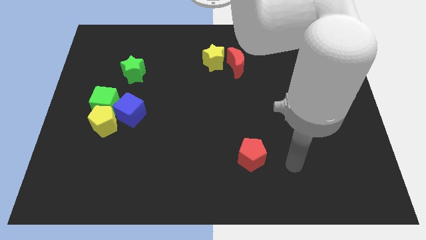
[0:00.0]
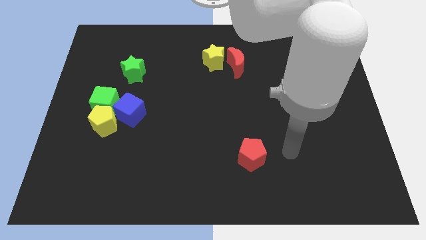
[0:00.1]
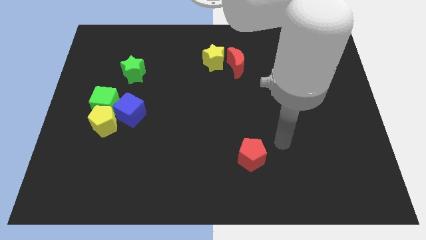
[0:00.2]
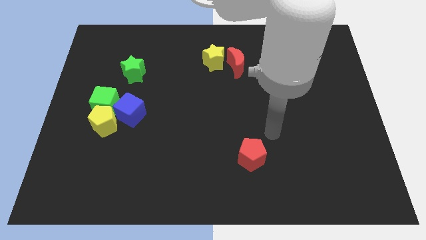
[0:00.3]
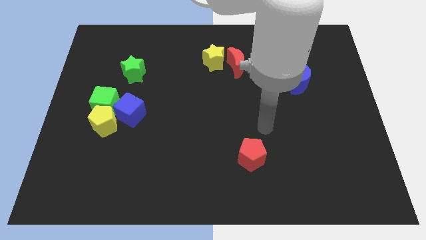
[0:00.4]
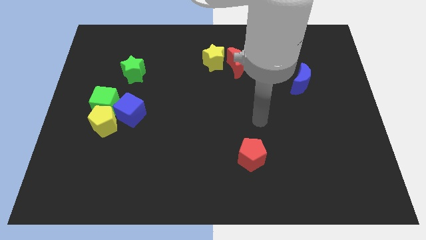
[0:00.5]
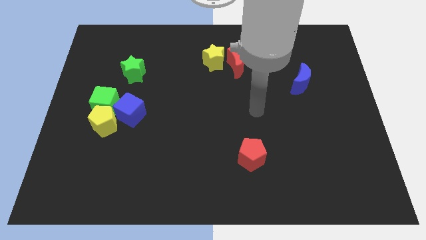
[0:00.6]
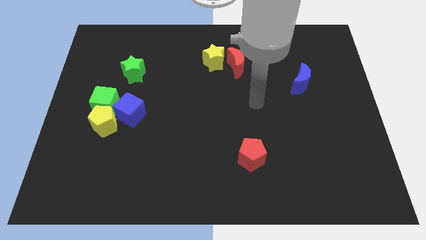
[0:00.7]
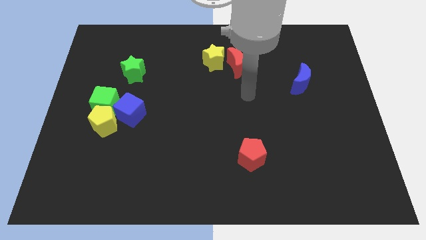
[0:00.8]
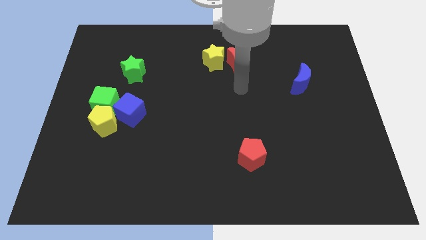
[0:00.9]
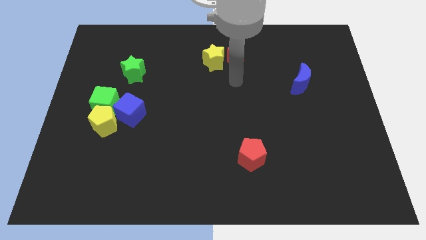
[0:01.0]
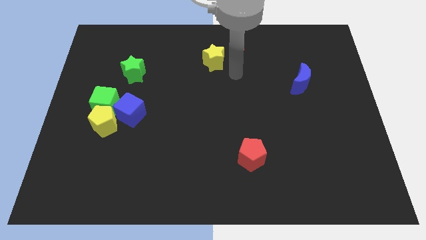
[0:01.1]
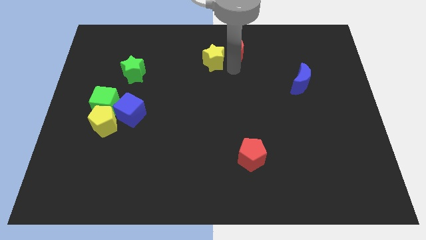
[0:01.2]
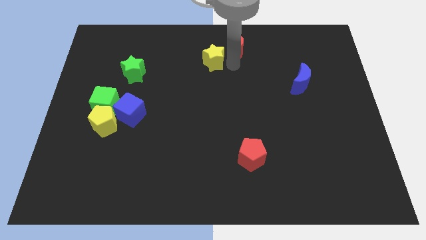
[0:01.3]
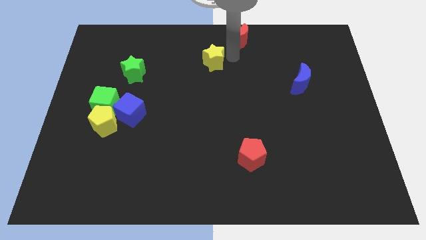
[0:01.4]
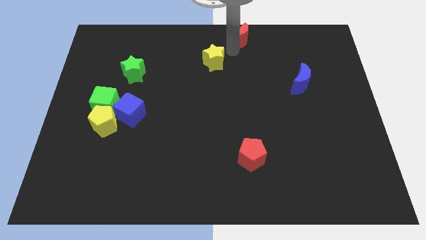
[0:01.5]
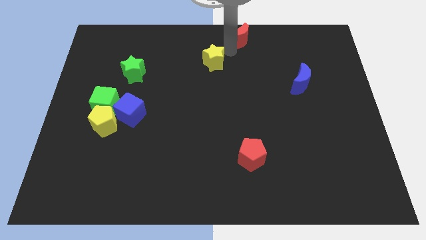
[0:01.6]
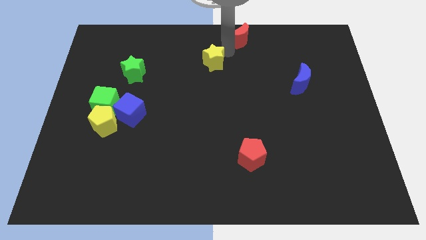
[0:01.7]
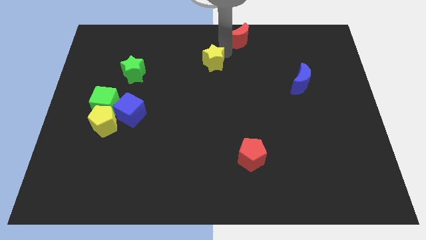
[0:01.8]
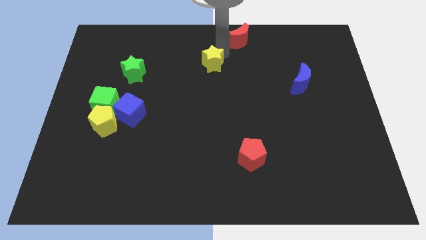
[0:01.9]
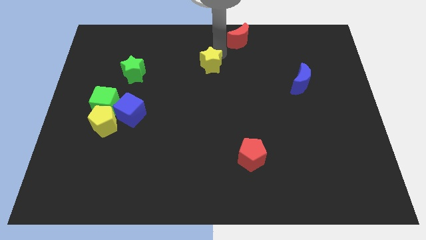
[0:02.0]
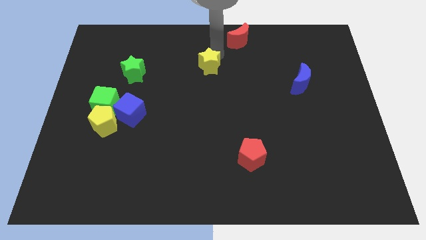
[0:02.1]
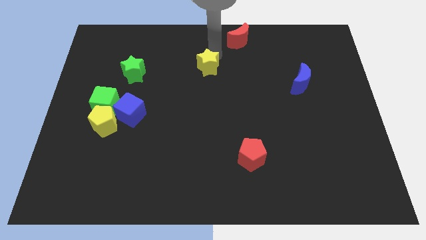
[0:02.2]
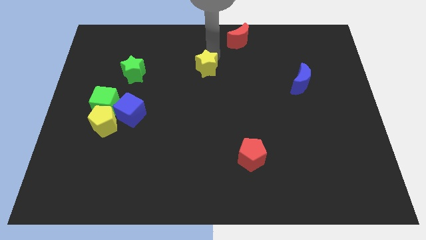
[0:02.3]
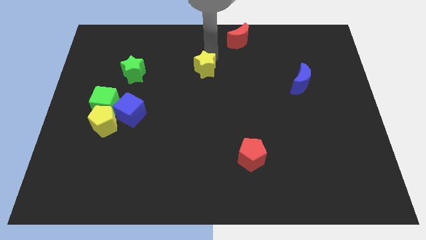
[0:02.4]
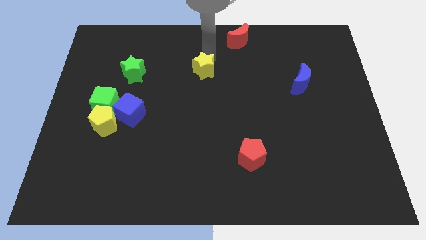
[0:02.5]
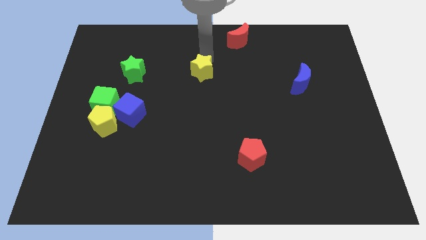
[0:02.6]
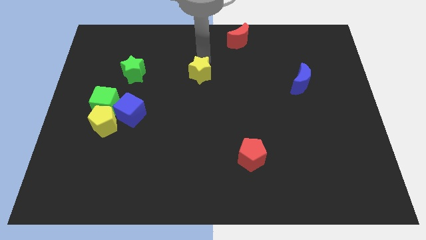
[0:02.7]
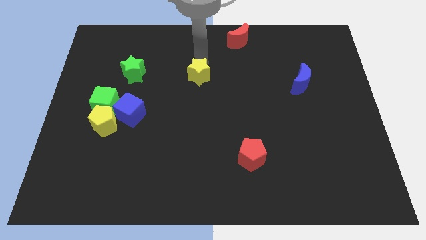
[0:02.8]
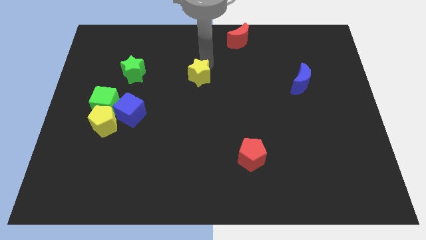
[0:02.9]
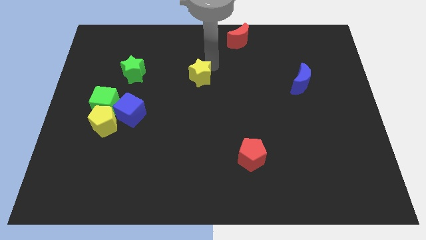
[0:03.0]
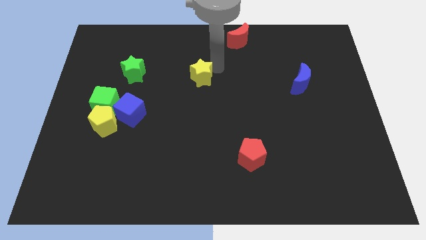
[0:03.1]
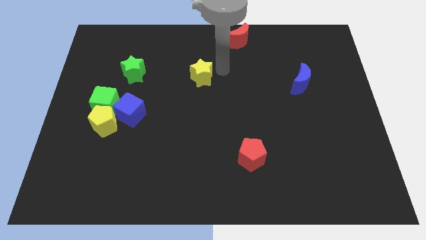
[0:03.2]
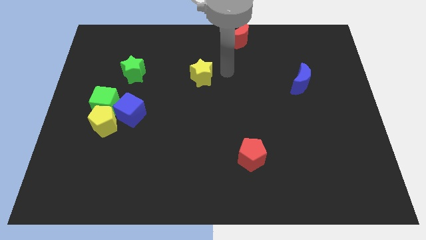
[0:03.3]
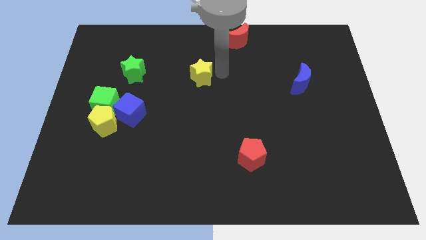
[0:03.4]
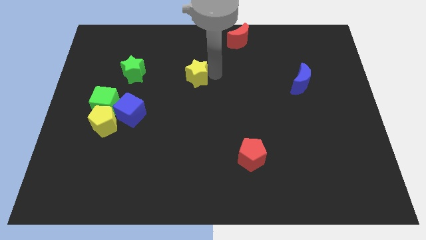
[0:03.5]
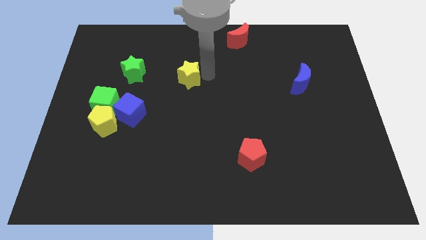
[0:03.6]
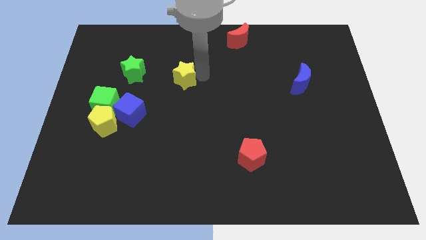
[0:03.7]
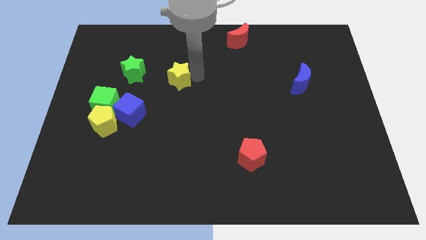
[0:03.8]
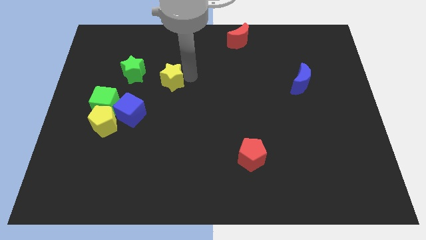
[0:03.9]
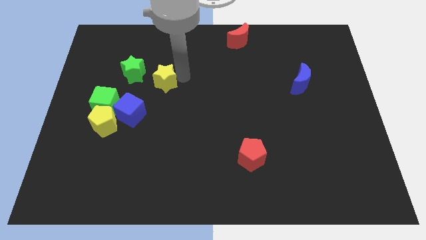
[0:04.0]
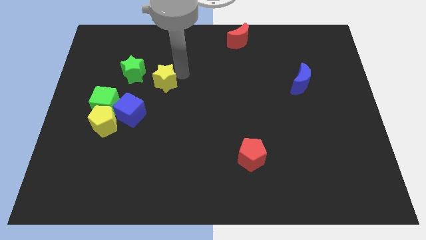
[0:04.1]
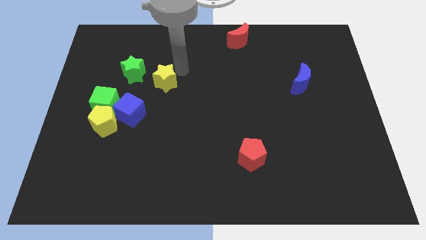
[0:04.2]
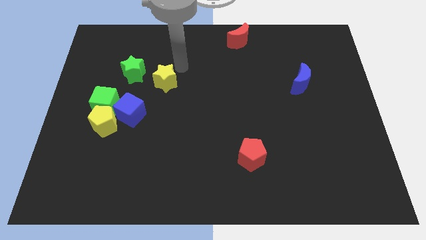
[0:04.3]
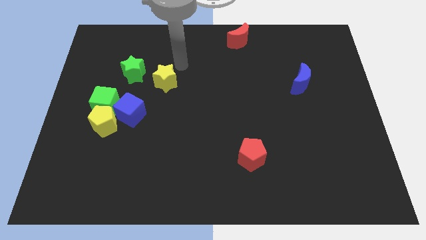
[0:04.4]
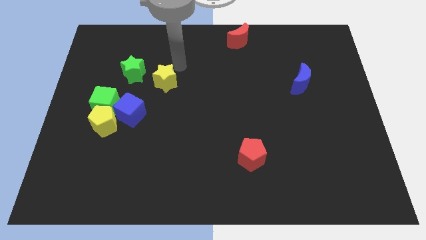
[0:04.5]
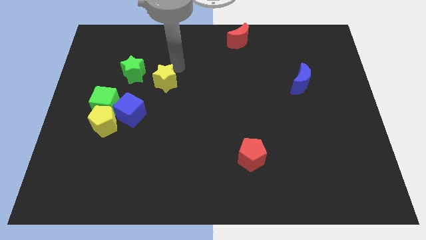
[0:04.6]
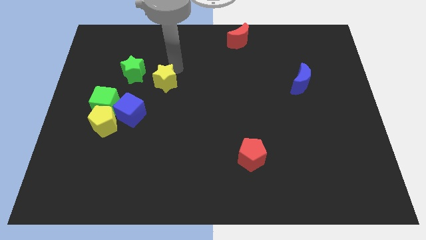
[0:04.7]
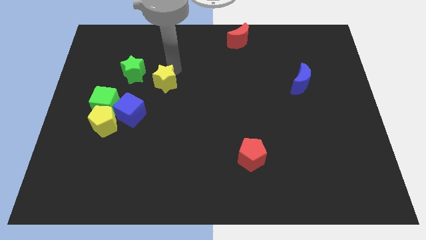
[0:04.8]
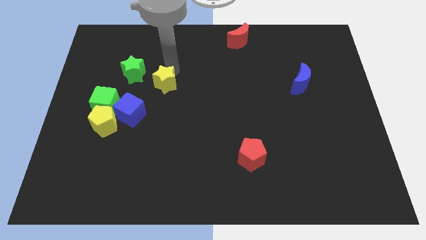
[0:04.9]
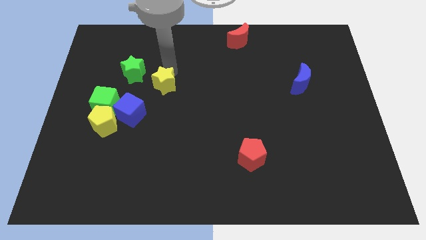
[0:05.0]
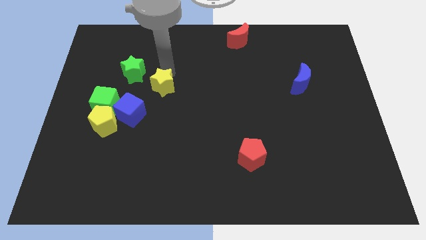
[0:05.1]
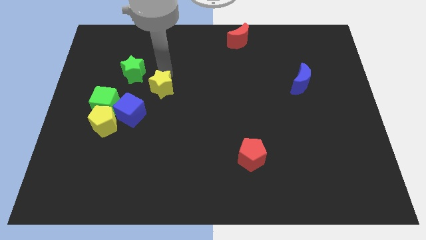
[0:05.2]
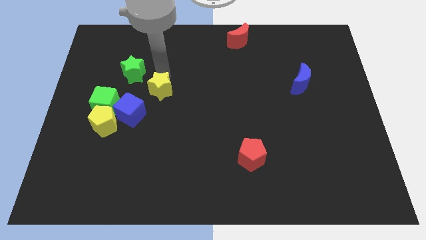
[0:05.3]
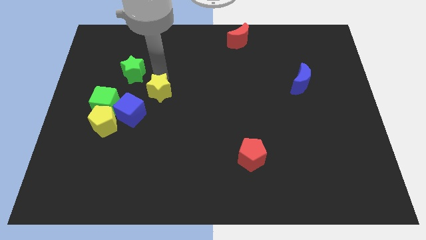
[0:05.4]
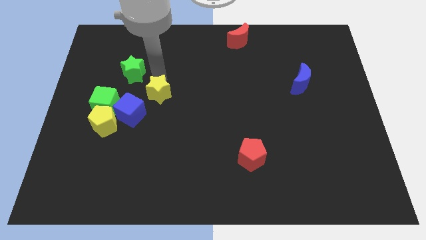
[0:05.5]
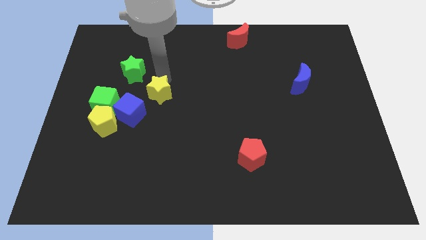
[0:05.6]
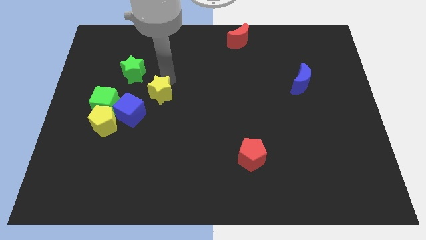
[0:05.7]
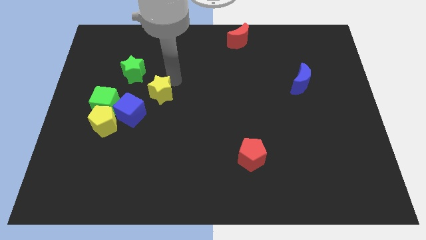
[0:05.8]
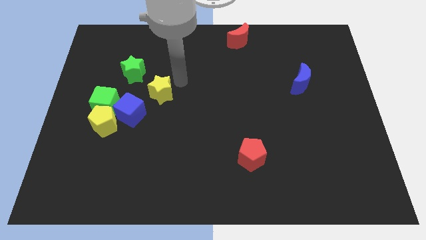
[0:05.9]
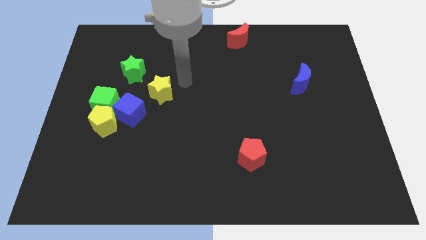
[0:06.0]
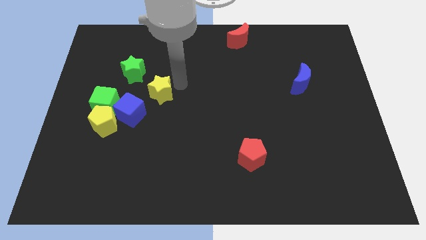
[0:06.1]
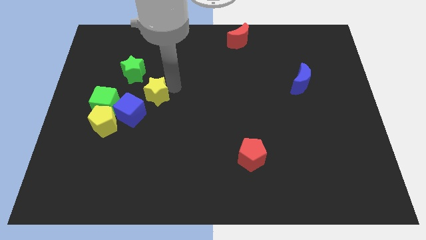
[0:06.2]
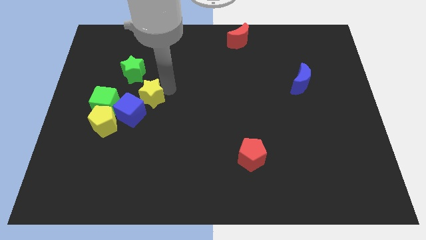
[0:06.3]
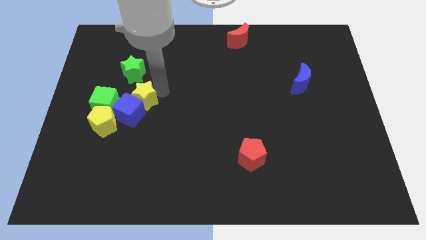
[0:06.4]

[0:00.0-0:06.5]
slide the yellow star towards the blue cube

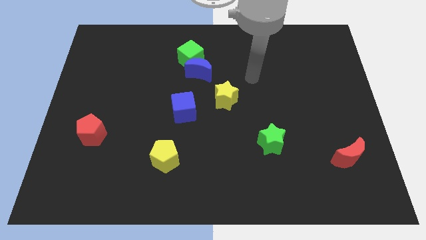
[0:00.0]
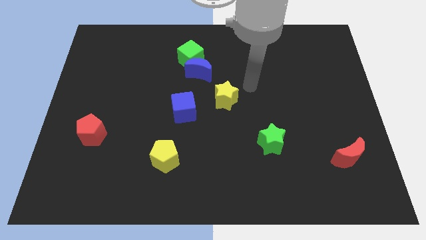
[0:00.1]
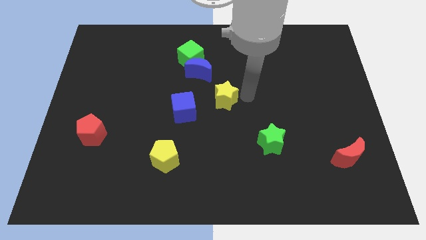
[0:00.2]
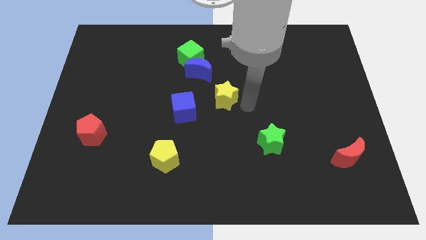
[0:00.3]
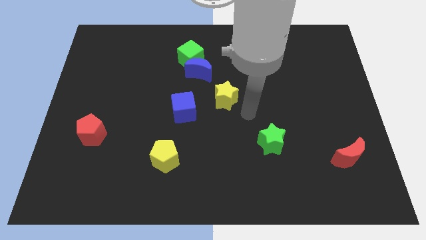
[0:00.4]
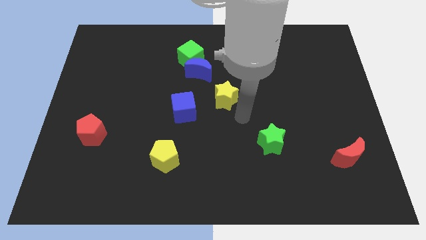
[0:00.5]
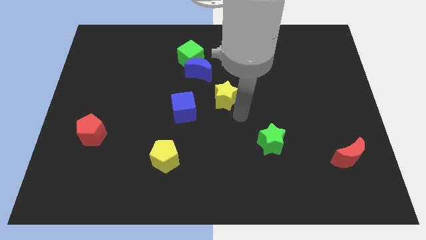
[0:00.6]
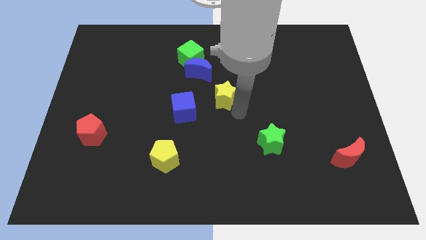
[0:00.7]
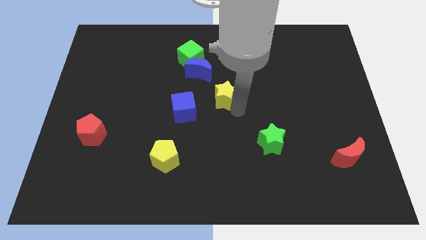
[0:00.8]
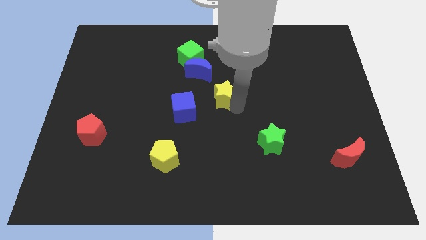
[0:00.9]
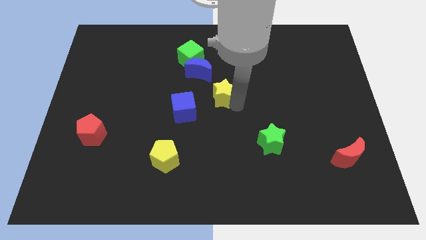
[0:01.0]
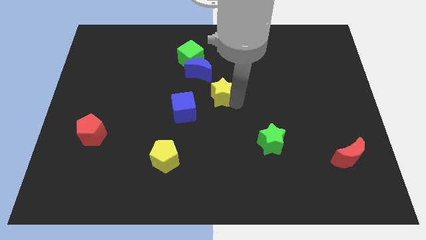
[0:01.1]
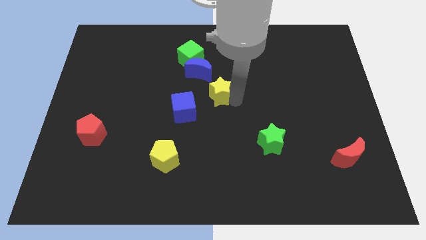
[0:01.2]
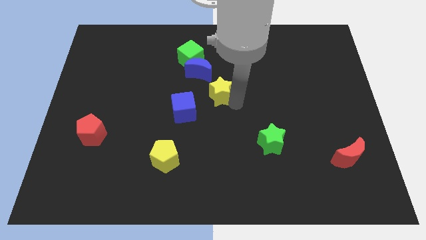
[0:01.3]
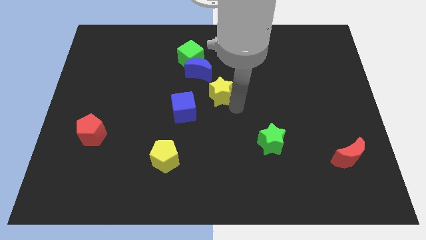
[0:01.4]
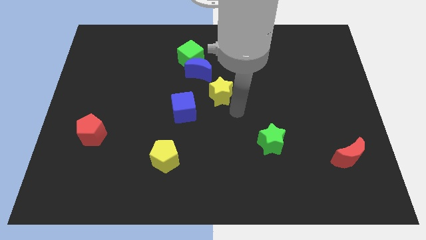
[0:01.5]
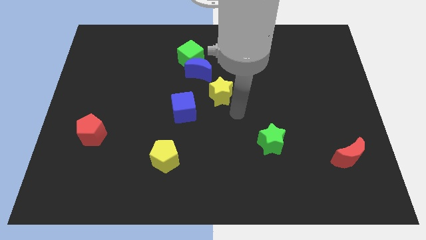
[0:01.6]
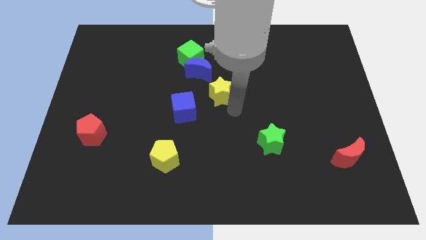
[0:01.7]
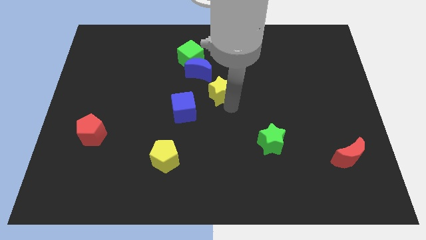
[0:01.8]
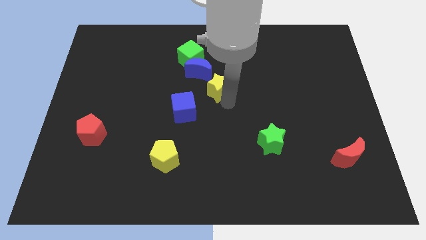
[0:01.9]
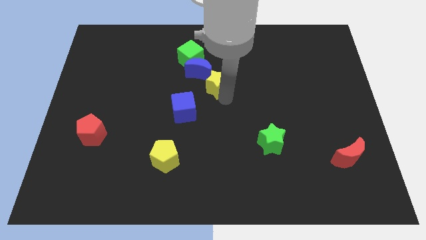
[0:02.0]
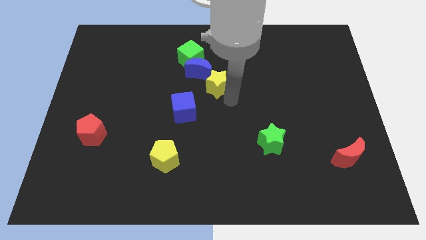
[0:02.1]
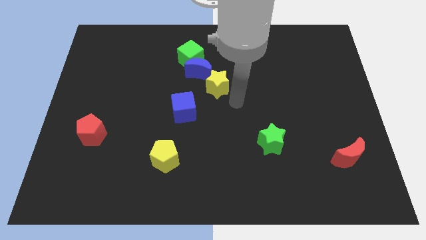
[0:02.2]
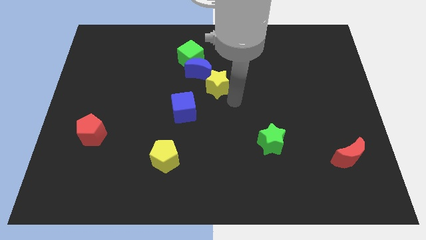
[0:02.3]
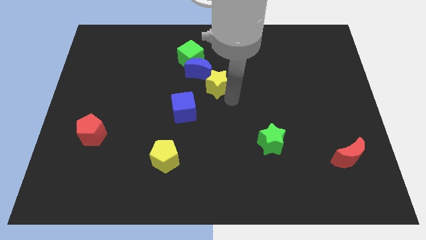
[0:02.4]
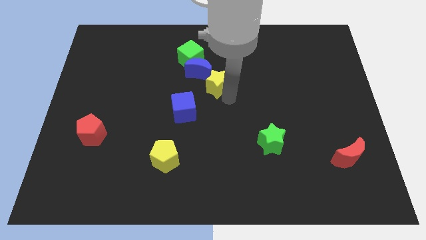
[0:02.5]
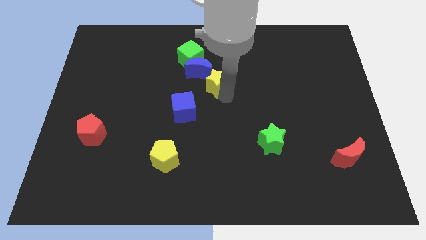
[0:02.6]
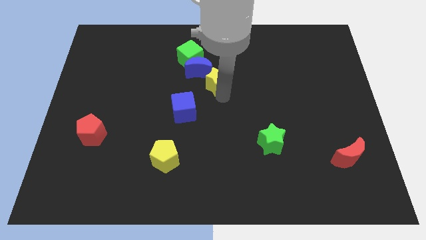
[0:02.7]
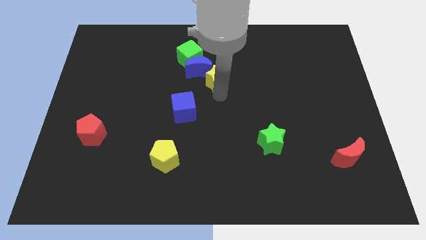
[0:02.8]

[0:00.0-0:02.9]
push the yellow star next to the blue moon
